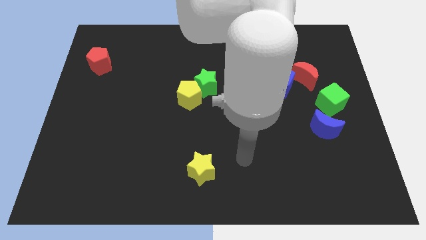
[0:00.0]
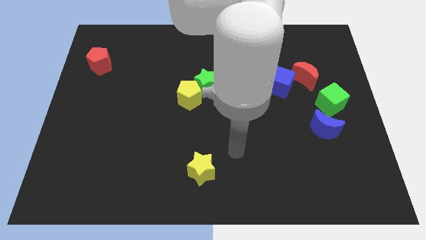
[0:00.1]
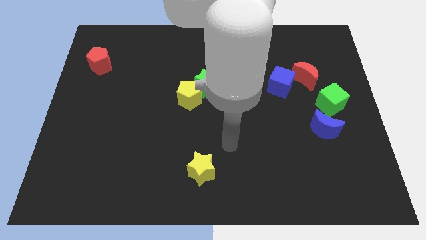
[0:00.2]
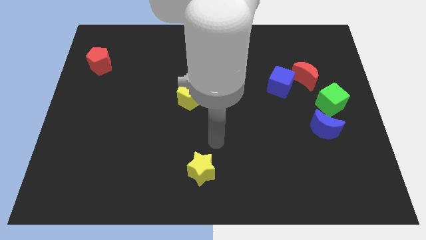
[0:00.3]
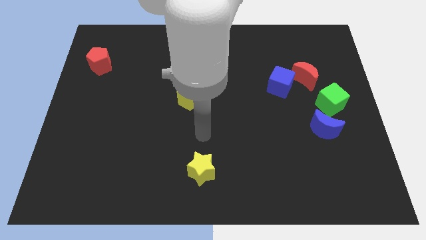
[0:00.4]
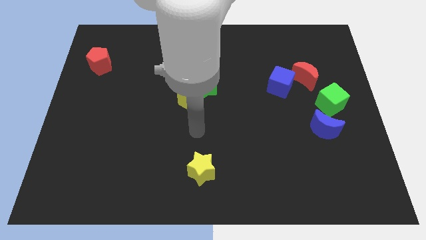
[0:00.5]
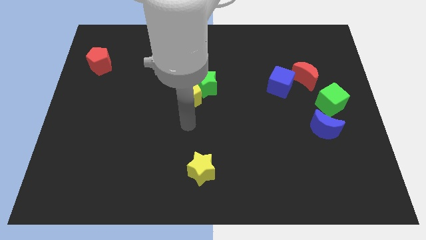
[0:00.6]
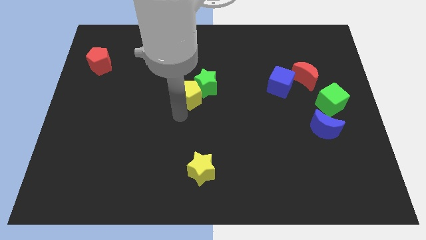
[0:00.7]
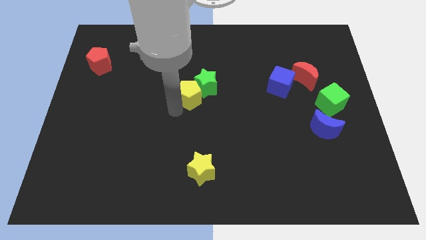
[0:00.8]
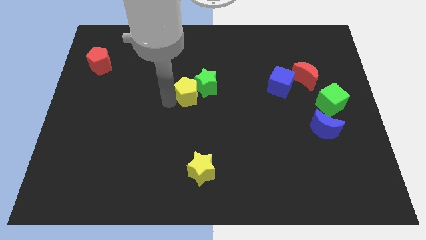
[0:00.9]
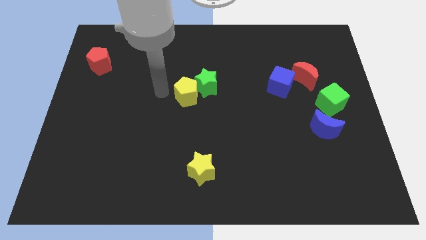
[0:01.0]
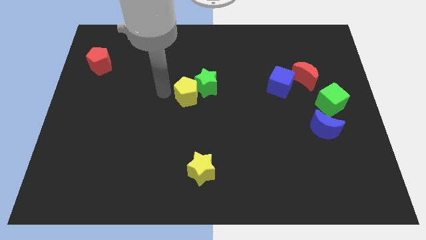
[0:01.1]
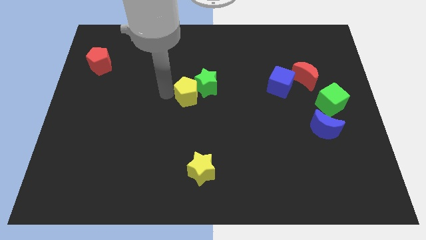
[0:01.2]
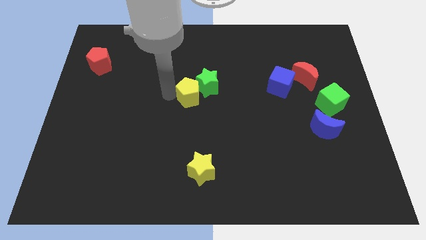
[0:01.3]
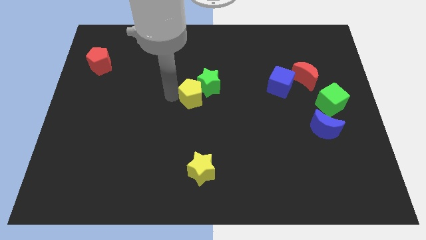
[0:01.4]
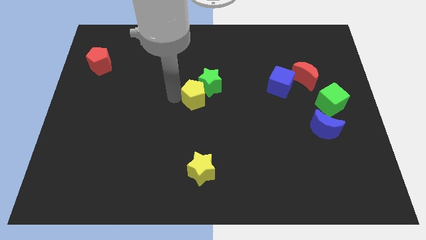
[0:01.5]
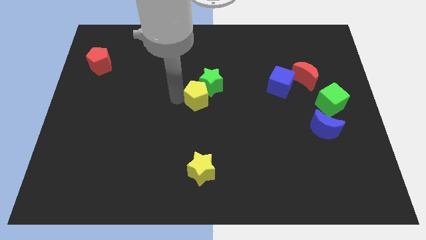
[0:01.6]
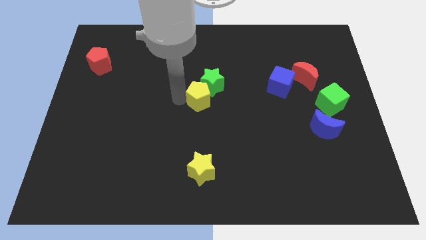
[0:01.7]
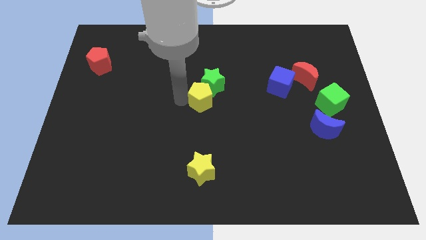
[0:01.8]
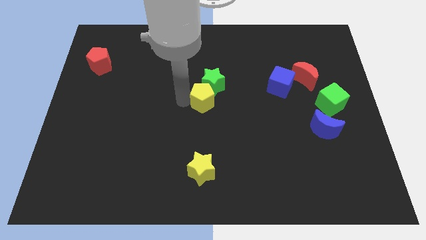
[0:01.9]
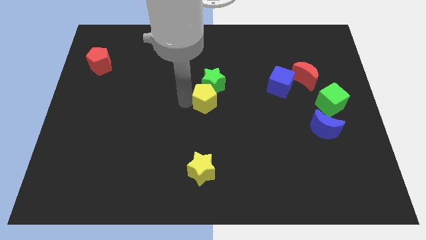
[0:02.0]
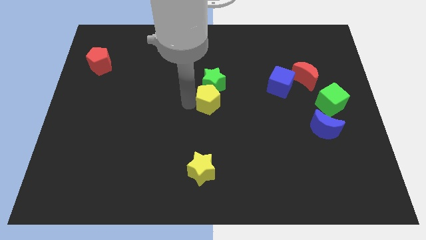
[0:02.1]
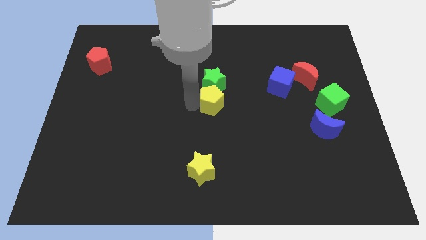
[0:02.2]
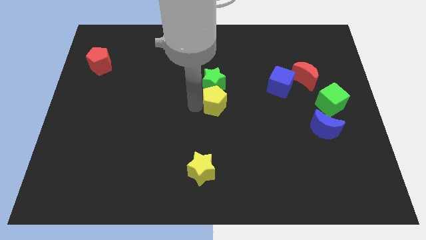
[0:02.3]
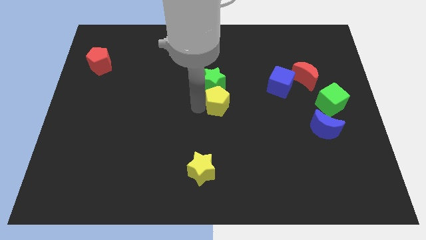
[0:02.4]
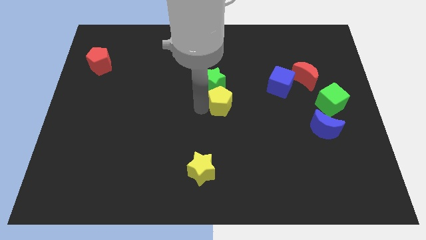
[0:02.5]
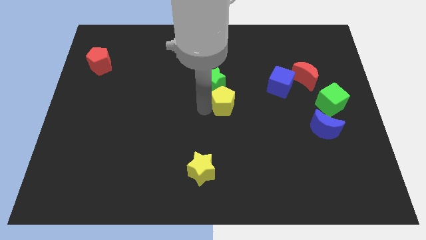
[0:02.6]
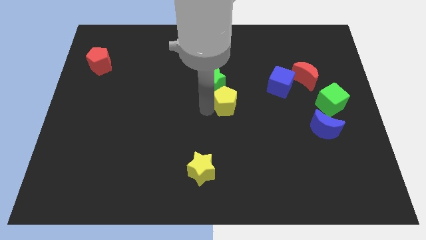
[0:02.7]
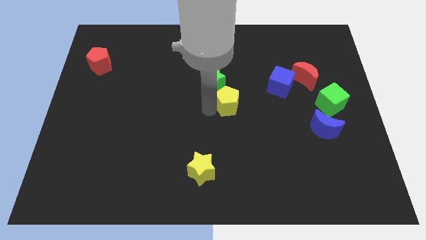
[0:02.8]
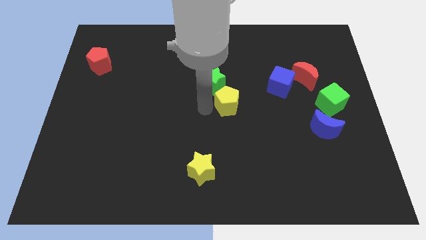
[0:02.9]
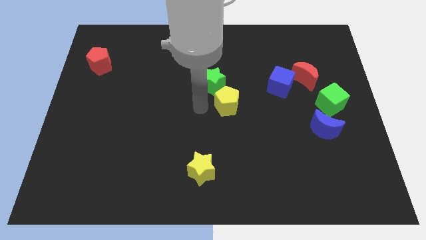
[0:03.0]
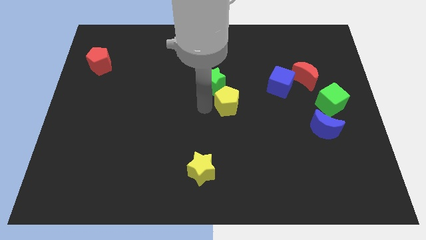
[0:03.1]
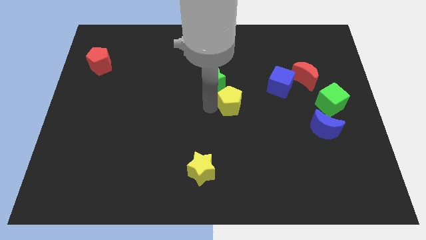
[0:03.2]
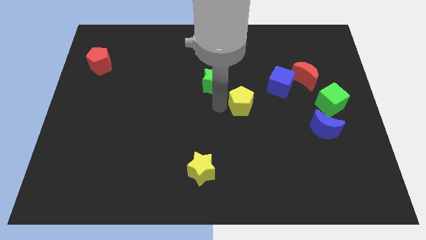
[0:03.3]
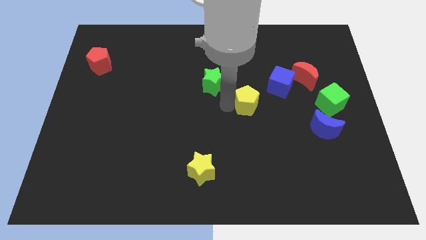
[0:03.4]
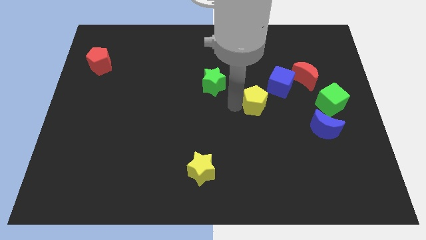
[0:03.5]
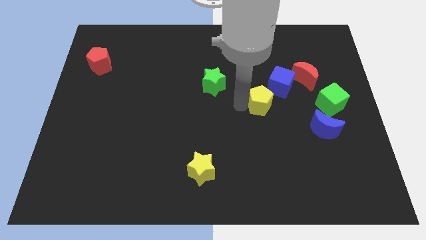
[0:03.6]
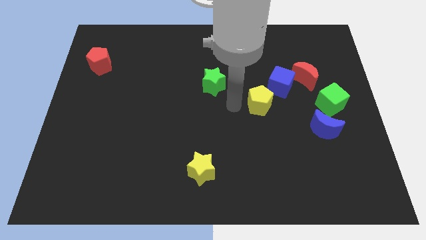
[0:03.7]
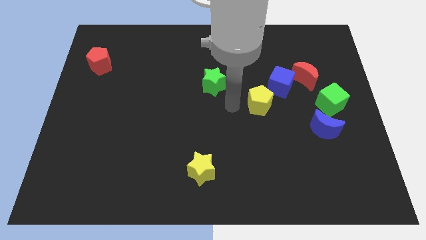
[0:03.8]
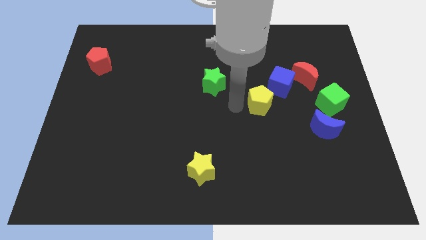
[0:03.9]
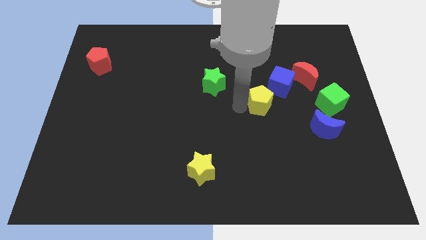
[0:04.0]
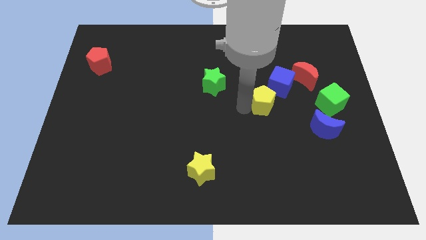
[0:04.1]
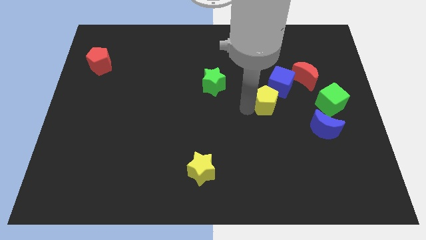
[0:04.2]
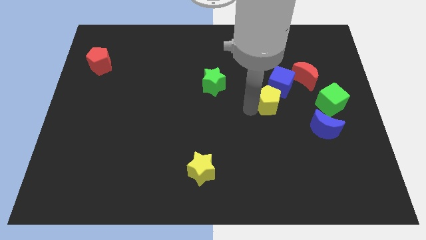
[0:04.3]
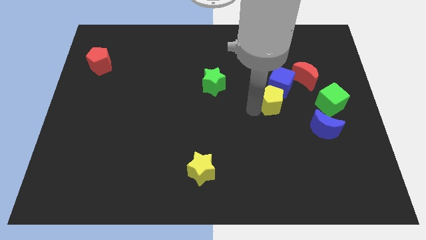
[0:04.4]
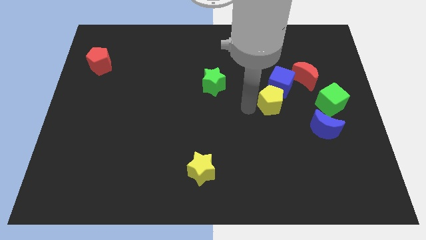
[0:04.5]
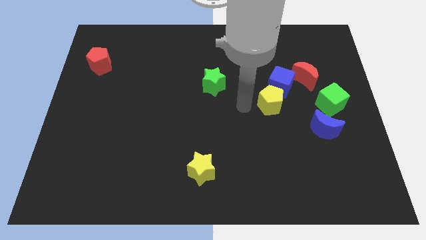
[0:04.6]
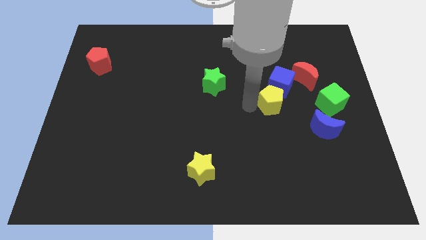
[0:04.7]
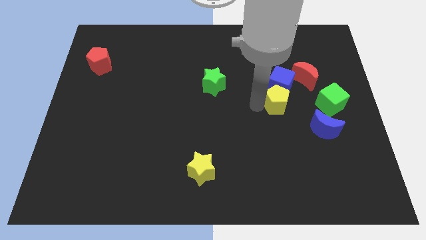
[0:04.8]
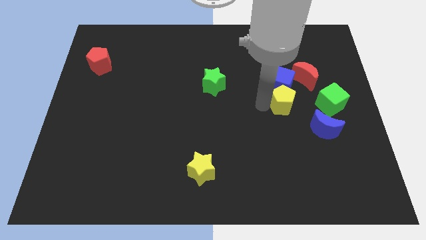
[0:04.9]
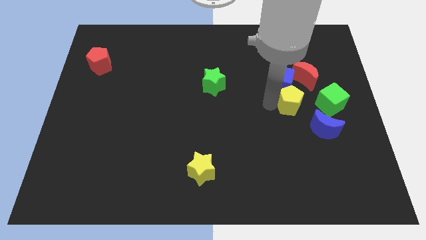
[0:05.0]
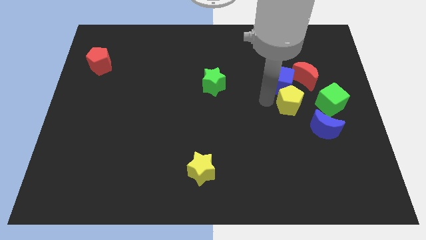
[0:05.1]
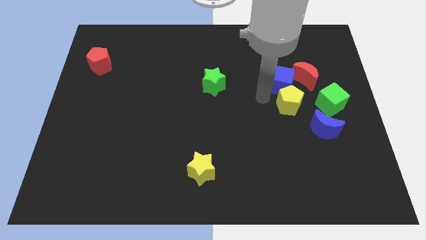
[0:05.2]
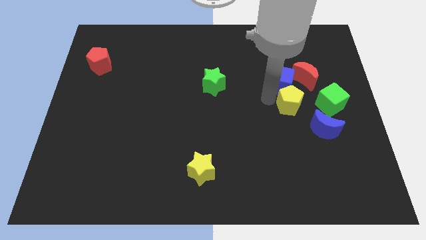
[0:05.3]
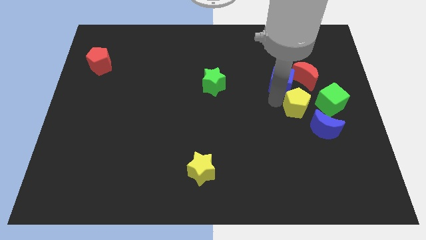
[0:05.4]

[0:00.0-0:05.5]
move the yellow pentagon to the bottom of the red moon

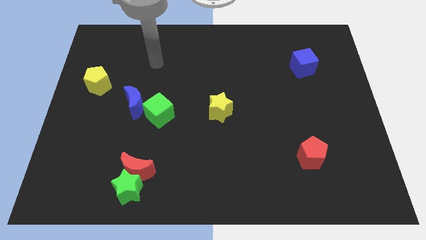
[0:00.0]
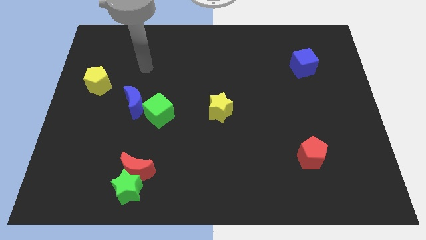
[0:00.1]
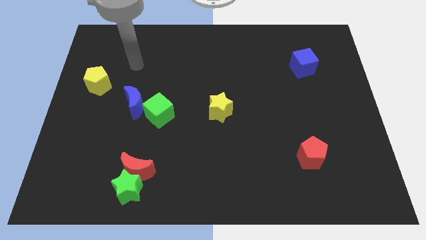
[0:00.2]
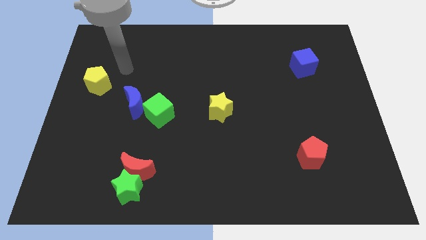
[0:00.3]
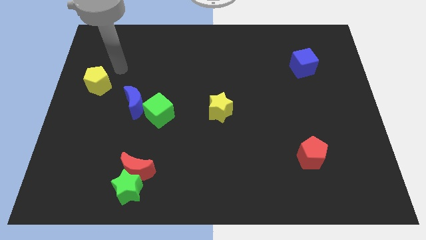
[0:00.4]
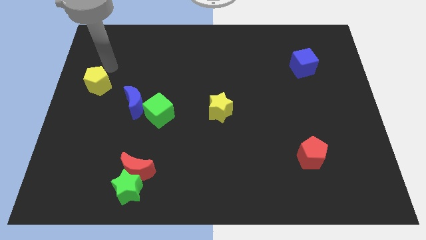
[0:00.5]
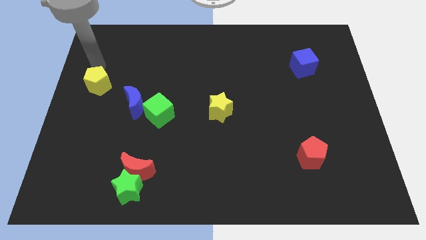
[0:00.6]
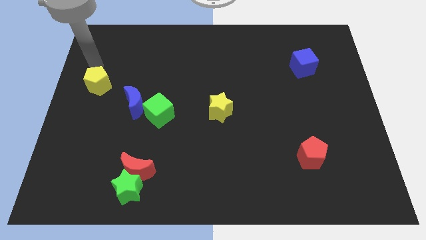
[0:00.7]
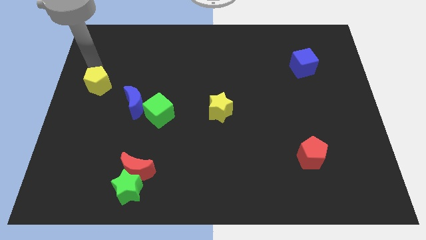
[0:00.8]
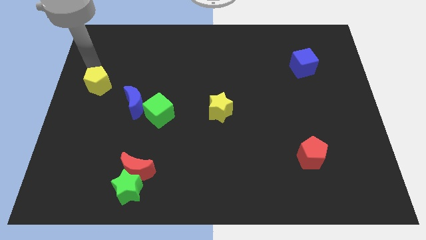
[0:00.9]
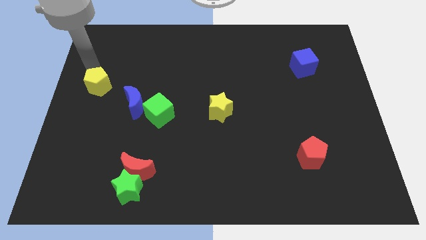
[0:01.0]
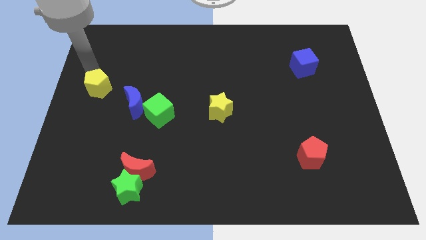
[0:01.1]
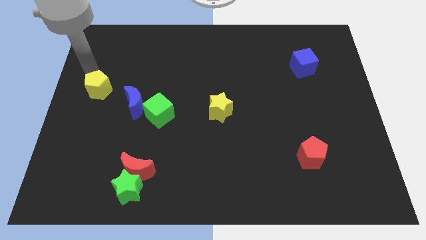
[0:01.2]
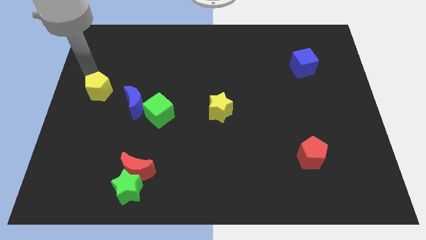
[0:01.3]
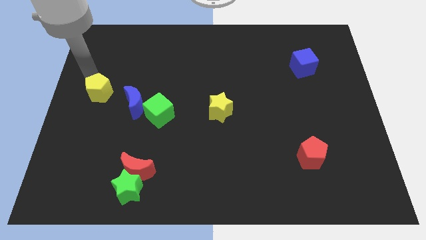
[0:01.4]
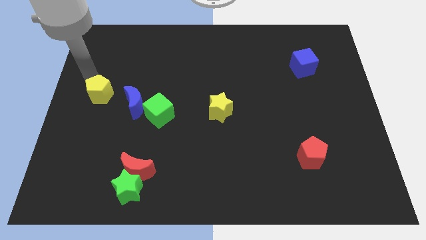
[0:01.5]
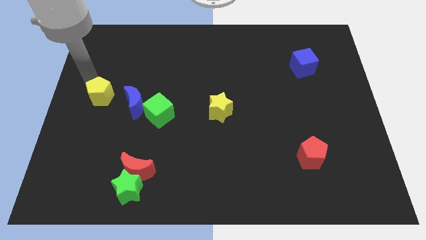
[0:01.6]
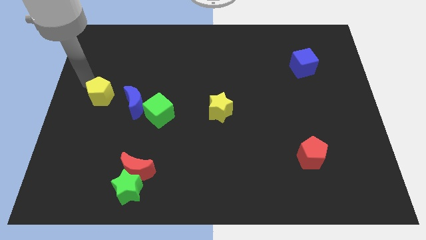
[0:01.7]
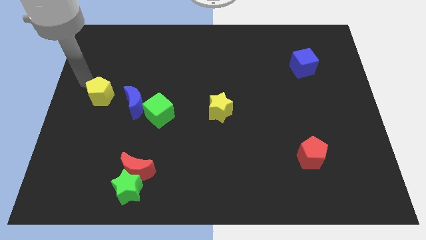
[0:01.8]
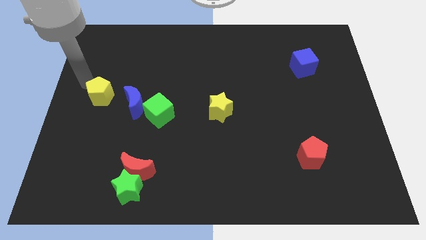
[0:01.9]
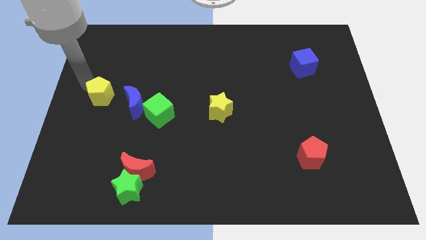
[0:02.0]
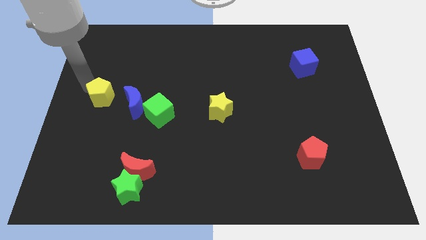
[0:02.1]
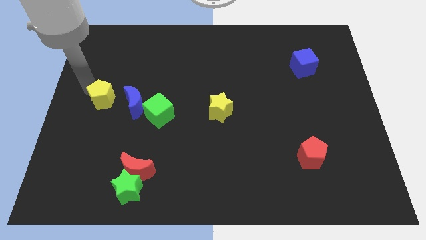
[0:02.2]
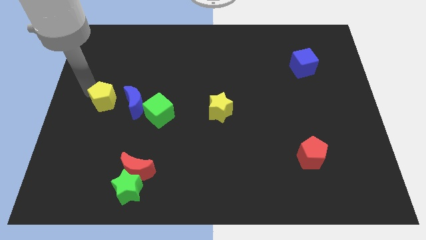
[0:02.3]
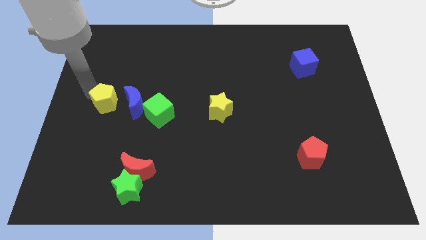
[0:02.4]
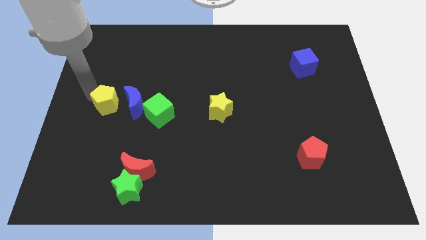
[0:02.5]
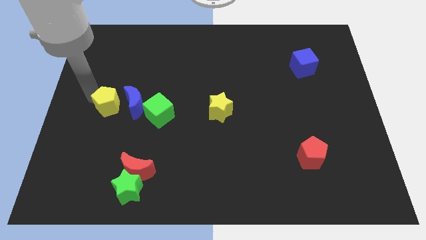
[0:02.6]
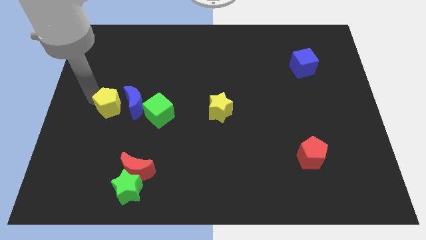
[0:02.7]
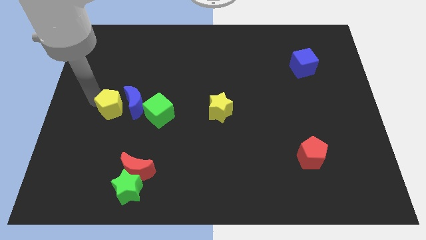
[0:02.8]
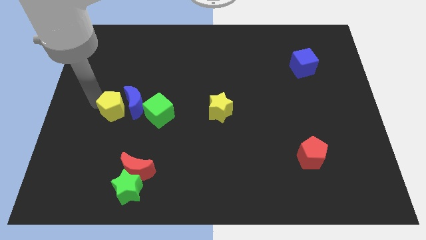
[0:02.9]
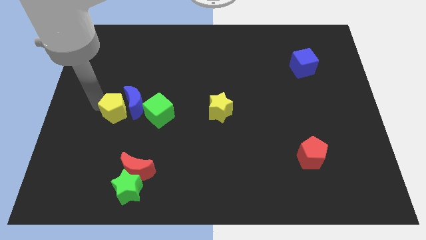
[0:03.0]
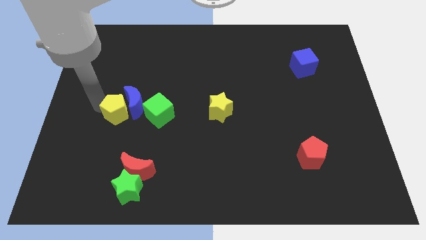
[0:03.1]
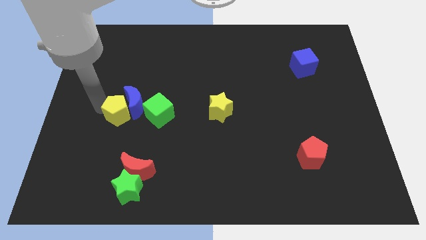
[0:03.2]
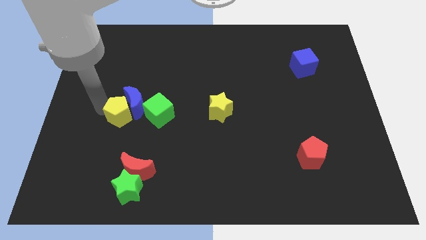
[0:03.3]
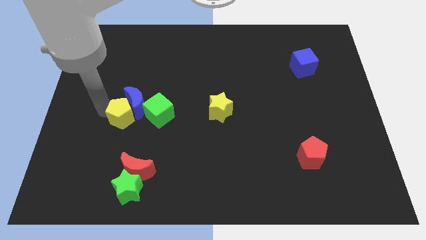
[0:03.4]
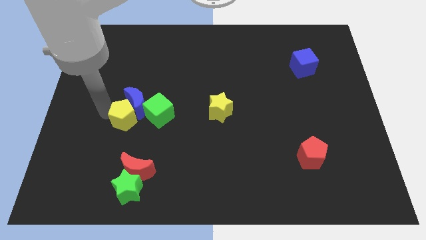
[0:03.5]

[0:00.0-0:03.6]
slide the yellow pentagon to the top of the red moon
